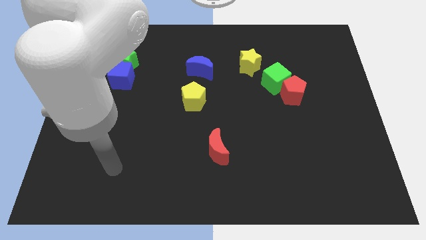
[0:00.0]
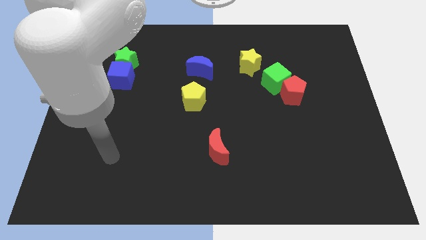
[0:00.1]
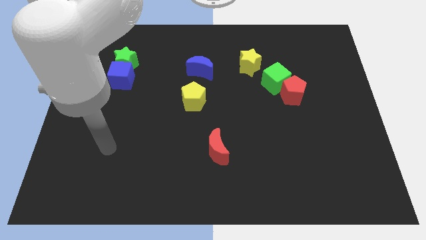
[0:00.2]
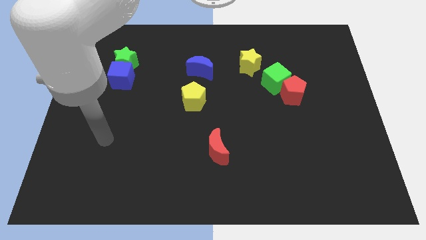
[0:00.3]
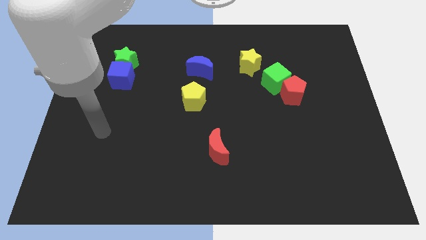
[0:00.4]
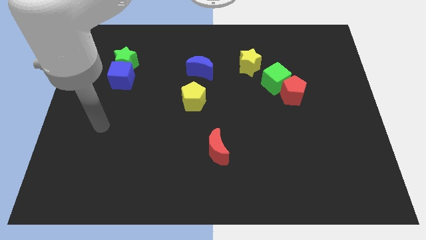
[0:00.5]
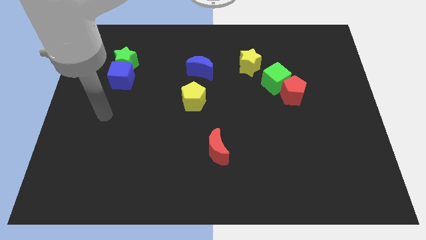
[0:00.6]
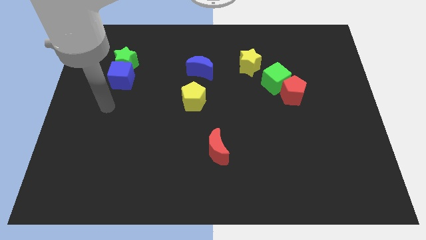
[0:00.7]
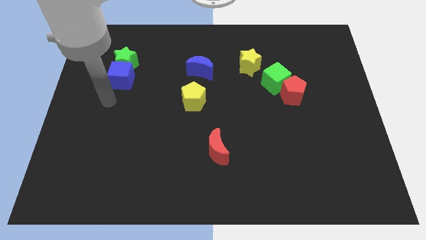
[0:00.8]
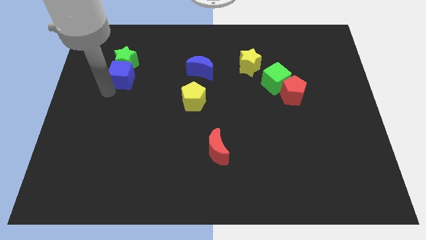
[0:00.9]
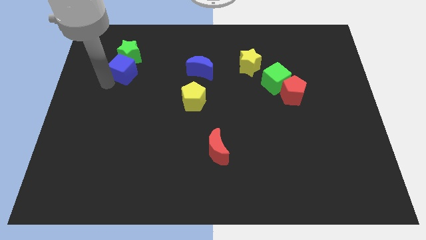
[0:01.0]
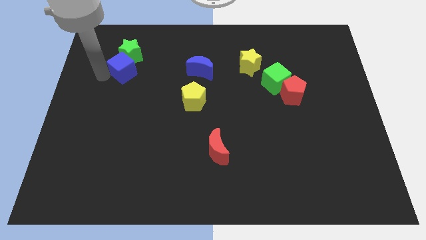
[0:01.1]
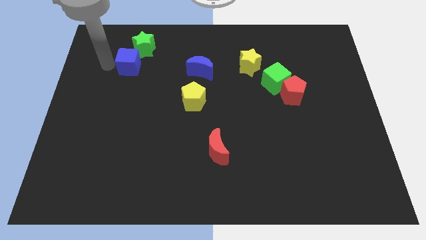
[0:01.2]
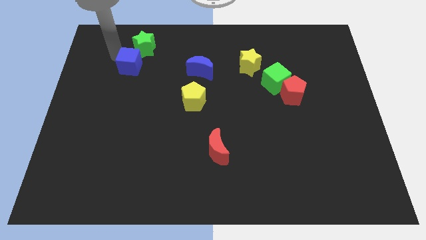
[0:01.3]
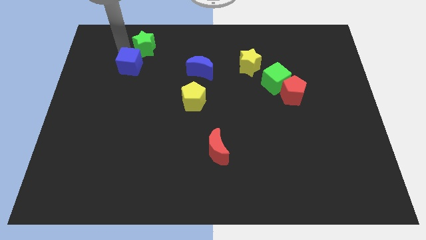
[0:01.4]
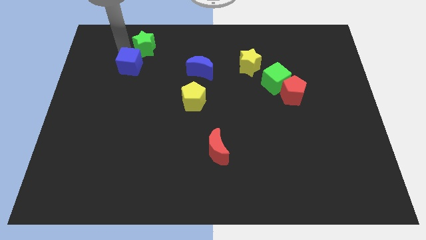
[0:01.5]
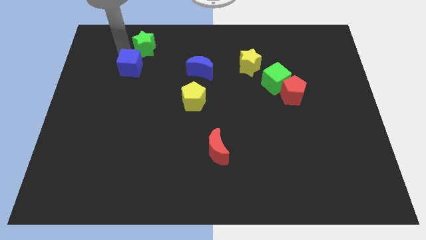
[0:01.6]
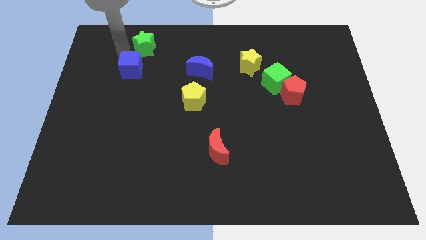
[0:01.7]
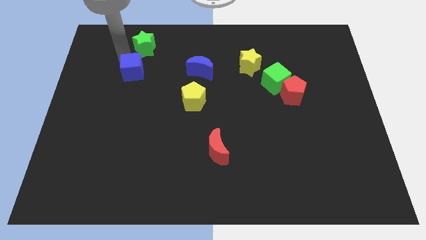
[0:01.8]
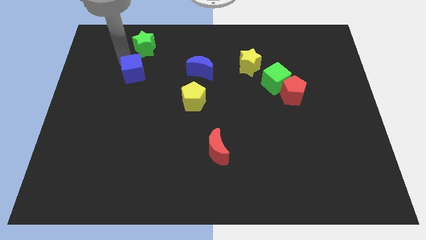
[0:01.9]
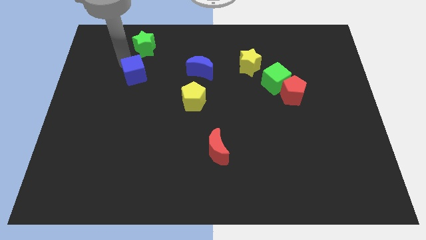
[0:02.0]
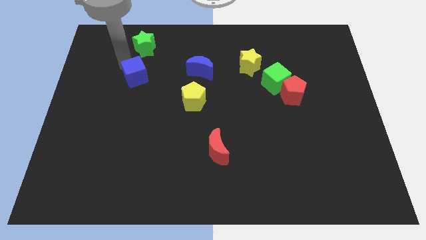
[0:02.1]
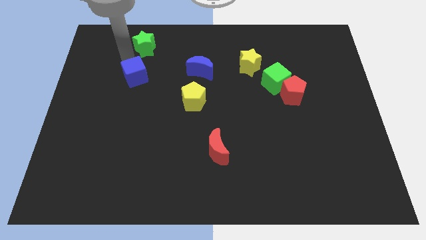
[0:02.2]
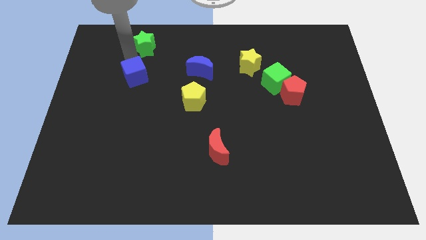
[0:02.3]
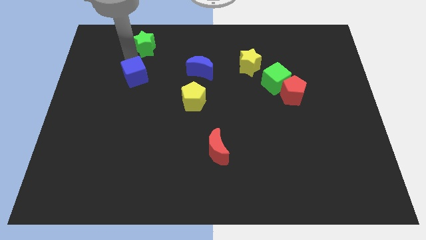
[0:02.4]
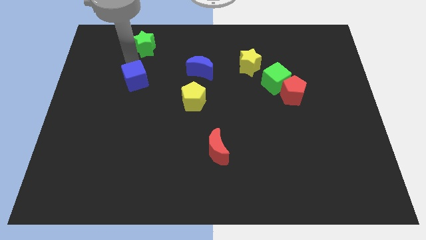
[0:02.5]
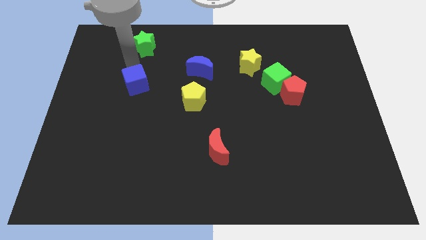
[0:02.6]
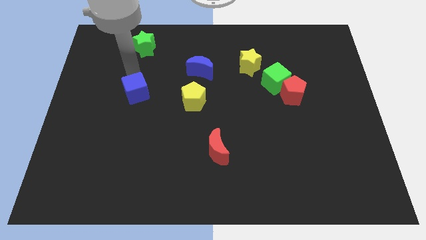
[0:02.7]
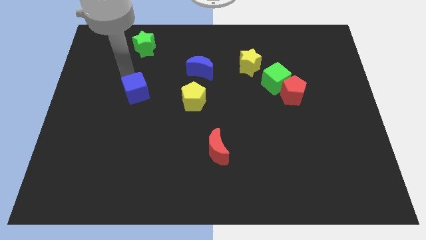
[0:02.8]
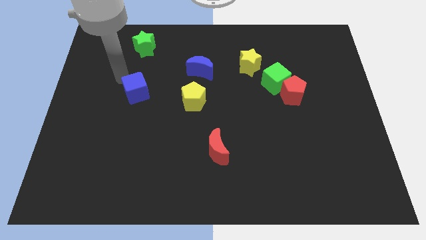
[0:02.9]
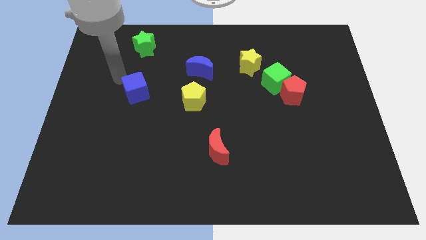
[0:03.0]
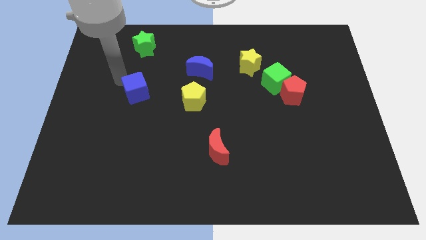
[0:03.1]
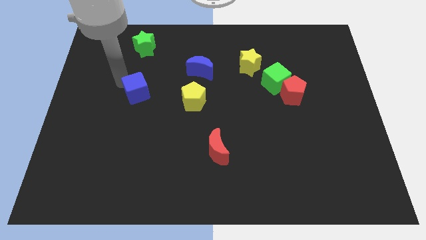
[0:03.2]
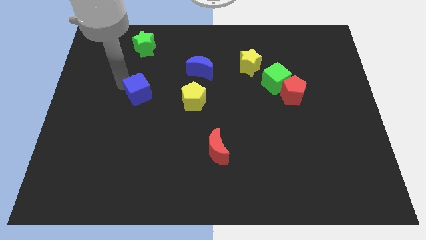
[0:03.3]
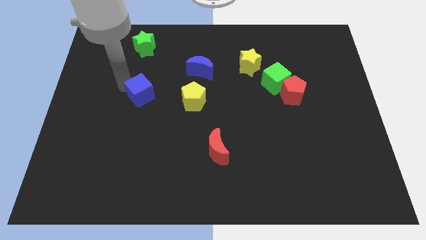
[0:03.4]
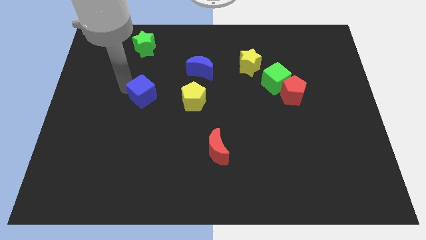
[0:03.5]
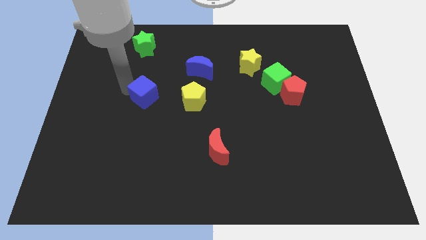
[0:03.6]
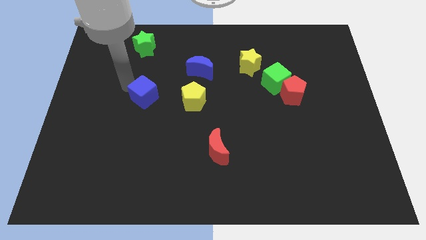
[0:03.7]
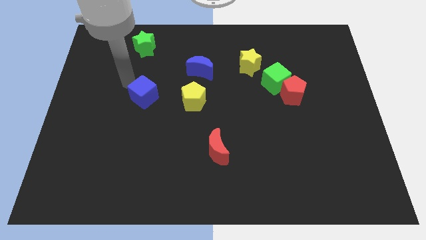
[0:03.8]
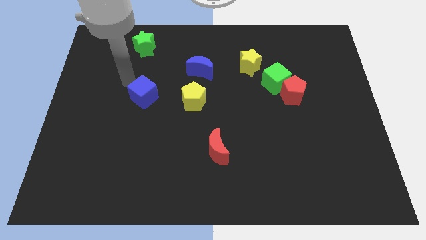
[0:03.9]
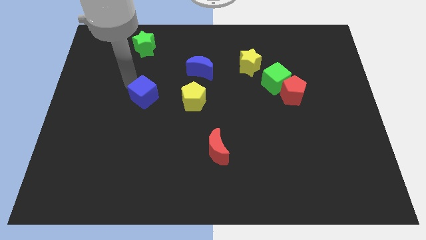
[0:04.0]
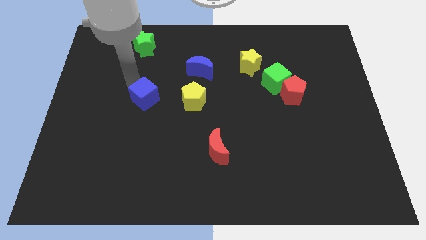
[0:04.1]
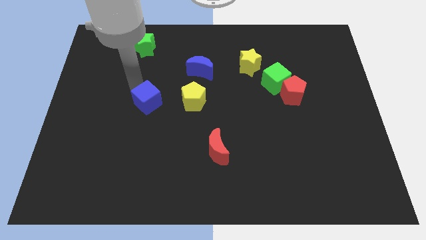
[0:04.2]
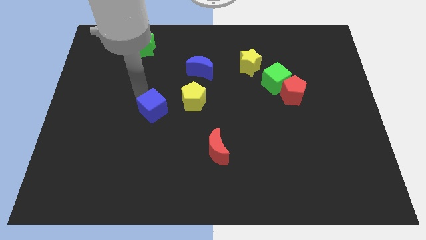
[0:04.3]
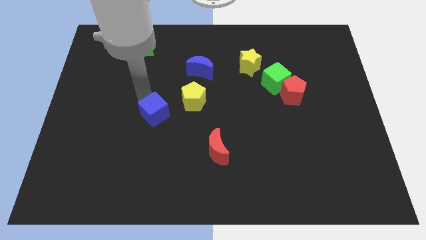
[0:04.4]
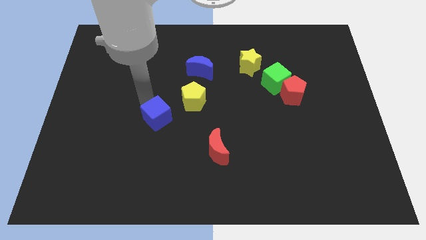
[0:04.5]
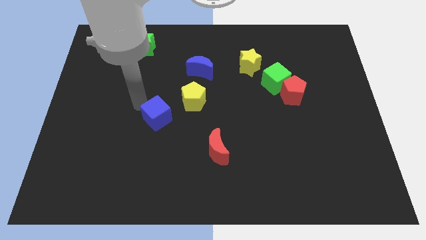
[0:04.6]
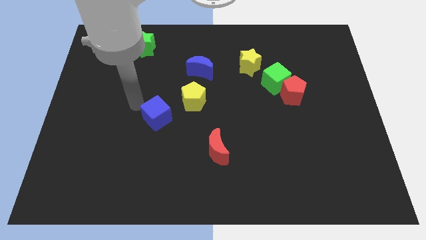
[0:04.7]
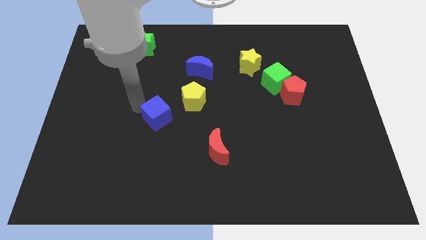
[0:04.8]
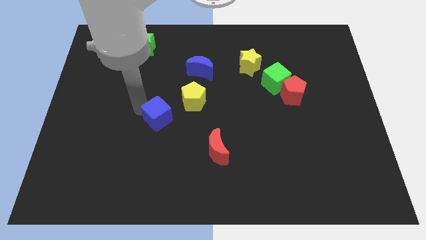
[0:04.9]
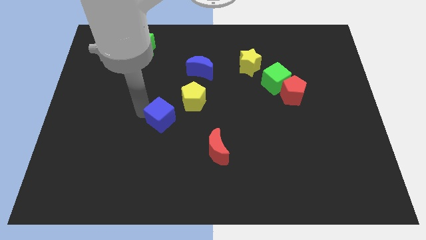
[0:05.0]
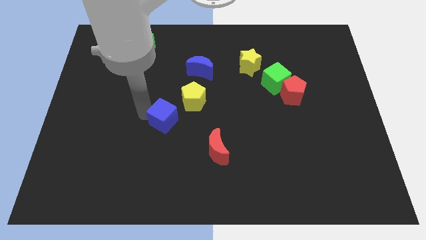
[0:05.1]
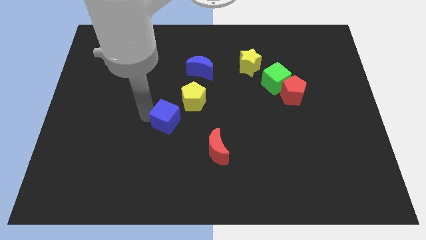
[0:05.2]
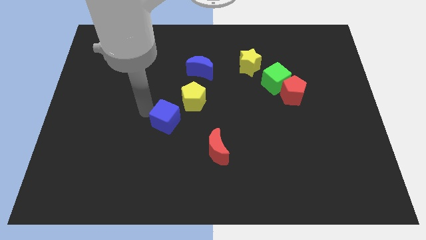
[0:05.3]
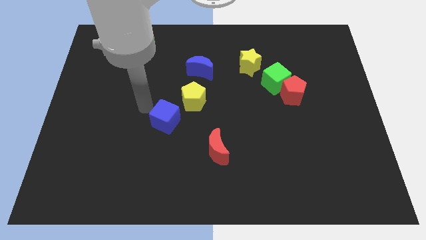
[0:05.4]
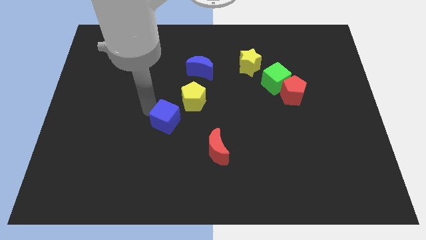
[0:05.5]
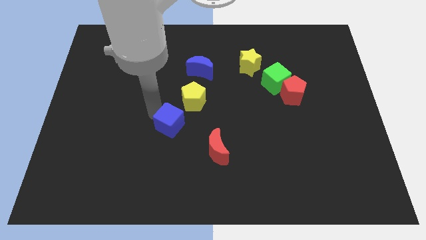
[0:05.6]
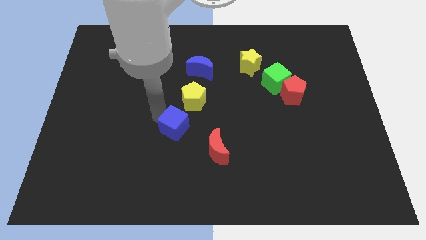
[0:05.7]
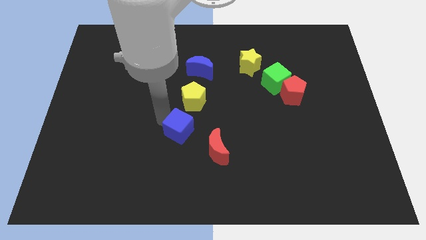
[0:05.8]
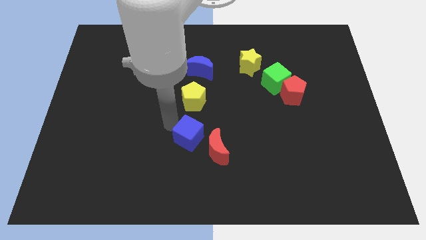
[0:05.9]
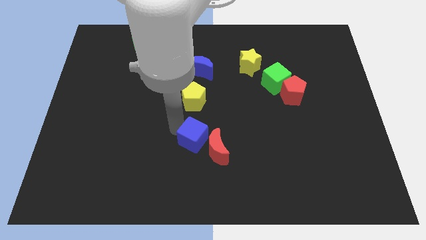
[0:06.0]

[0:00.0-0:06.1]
slide the blue cube next to the red moon

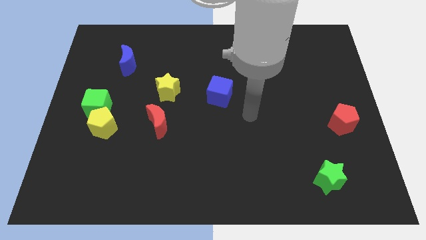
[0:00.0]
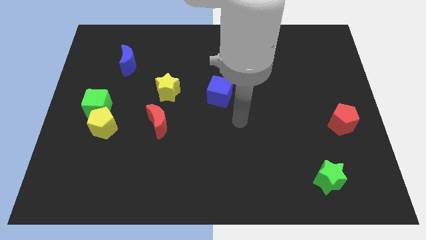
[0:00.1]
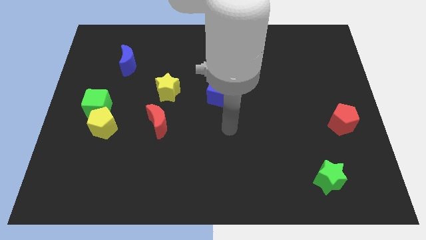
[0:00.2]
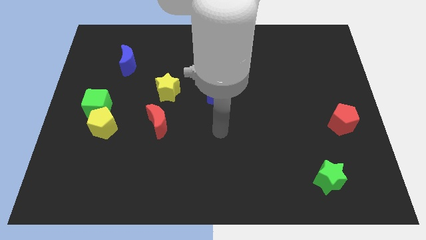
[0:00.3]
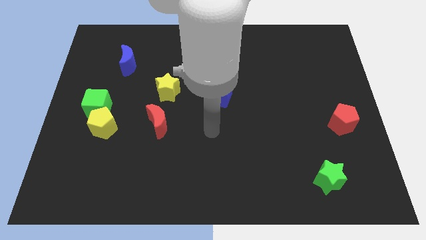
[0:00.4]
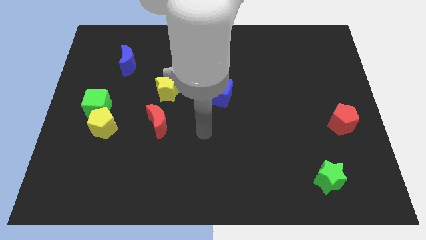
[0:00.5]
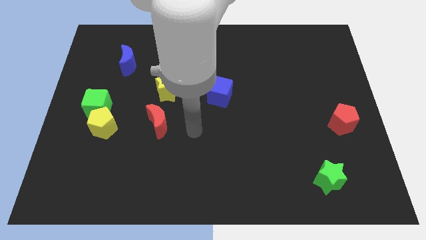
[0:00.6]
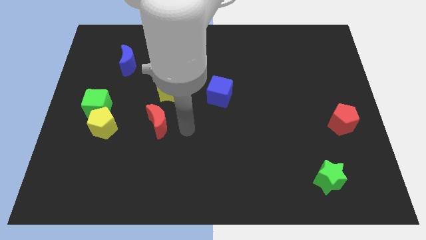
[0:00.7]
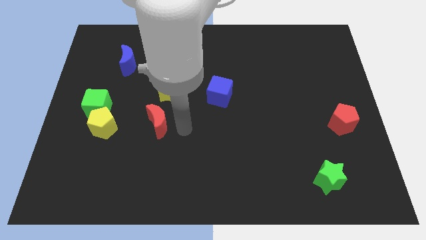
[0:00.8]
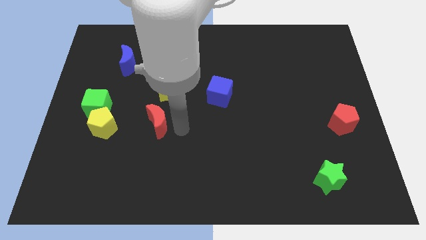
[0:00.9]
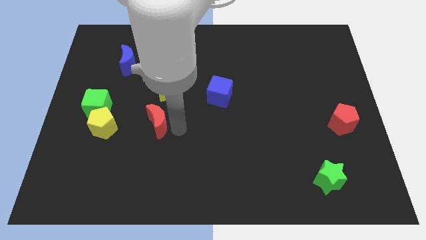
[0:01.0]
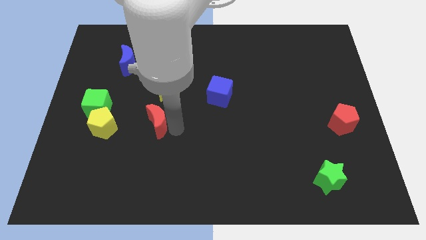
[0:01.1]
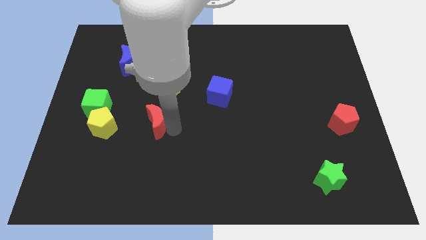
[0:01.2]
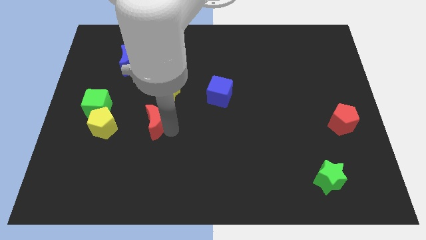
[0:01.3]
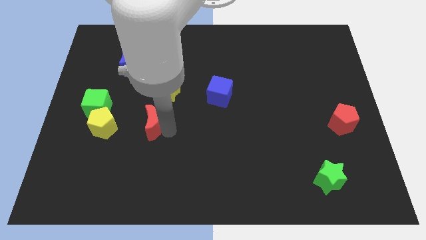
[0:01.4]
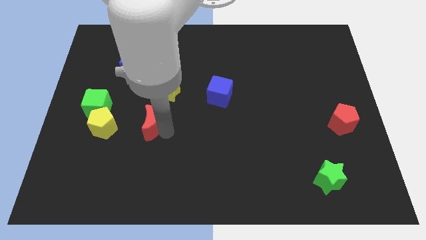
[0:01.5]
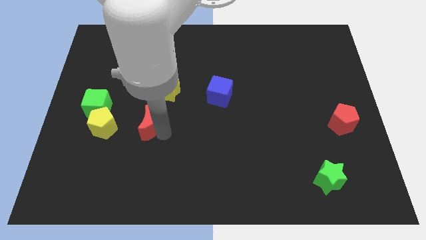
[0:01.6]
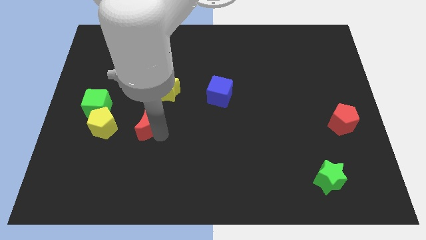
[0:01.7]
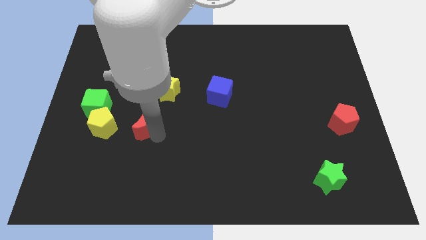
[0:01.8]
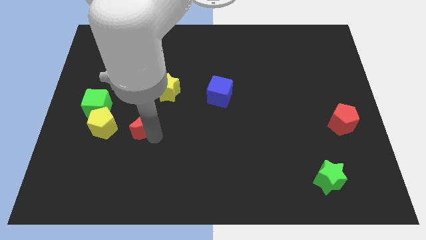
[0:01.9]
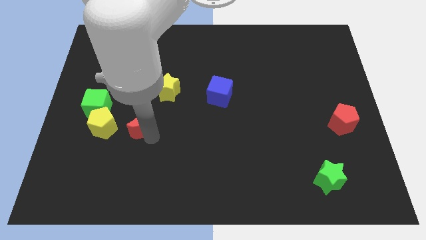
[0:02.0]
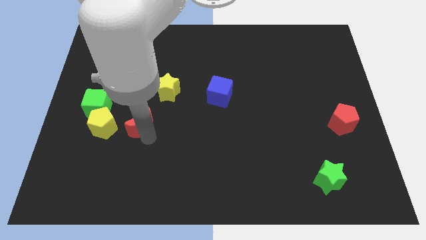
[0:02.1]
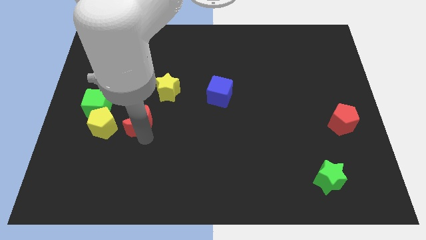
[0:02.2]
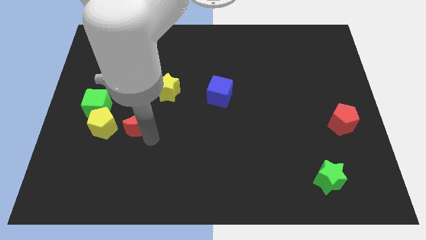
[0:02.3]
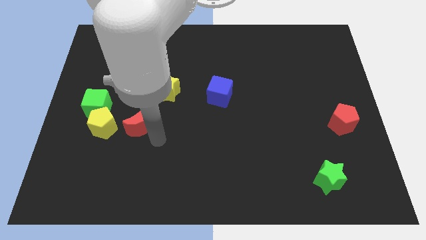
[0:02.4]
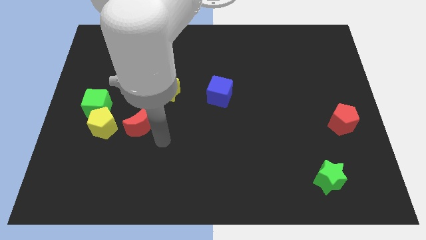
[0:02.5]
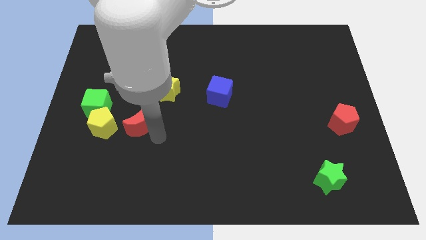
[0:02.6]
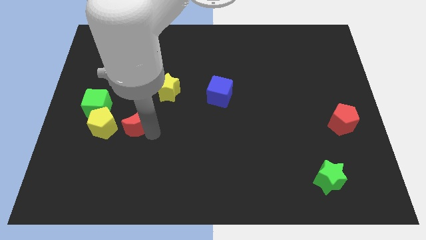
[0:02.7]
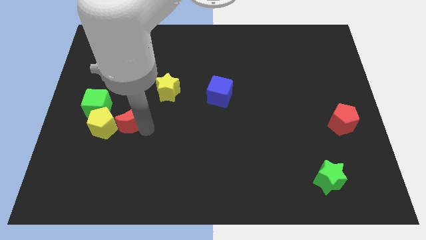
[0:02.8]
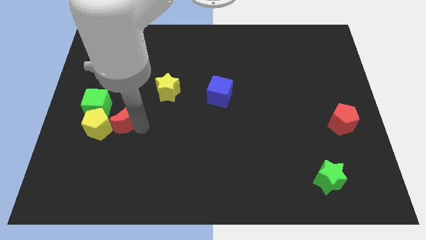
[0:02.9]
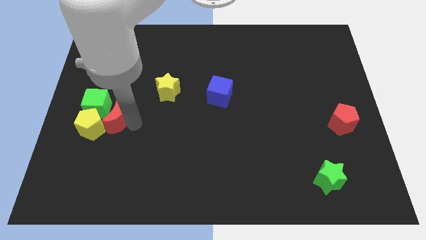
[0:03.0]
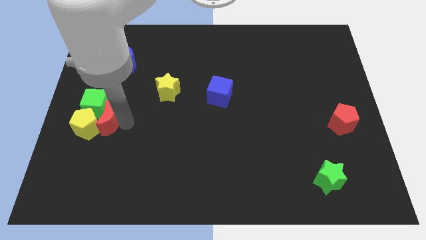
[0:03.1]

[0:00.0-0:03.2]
move the red moon towards the green cube
